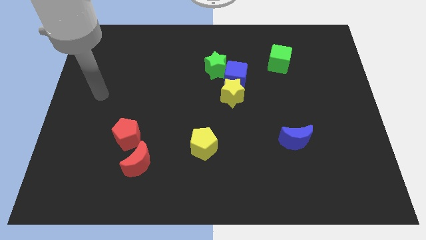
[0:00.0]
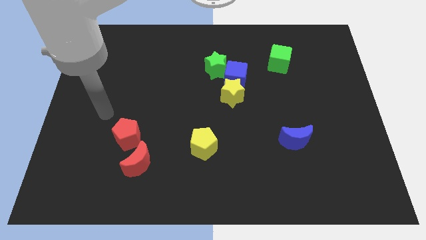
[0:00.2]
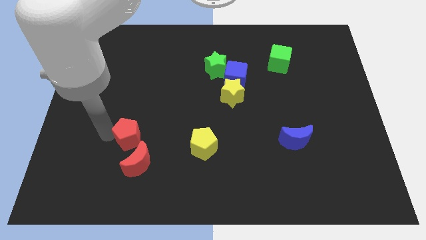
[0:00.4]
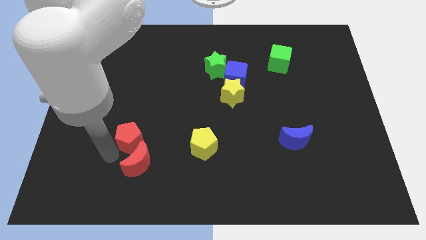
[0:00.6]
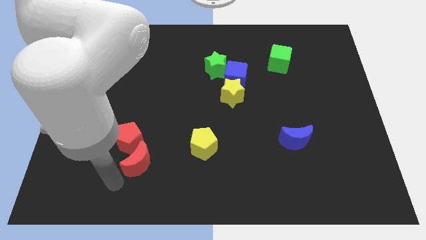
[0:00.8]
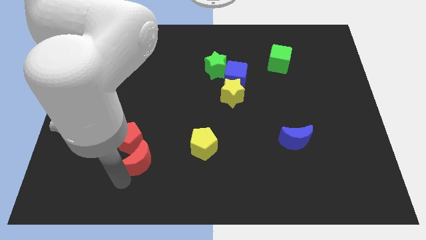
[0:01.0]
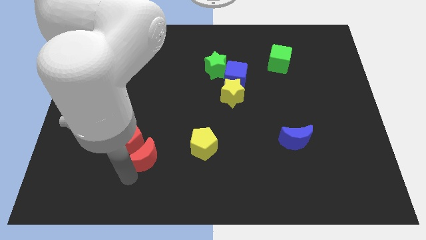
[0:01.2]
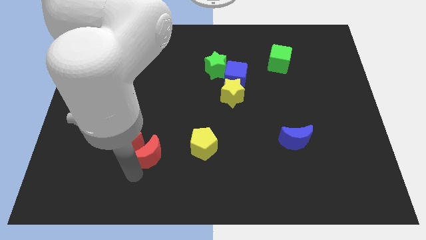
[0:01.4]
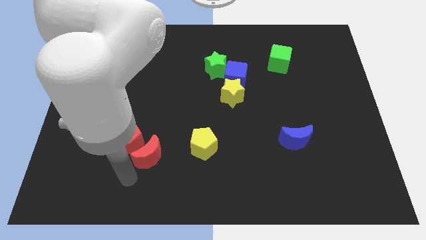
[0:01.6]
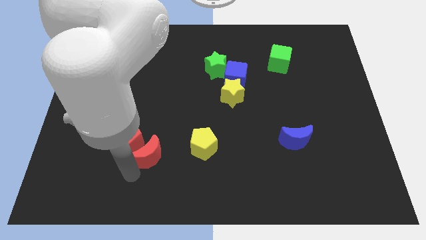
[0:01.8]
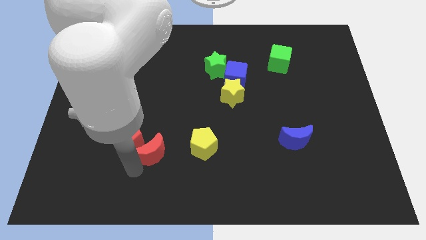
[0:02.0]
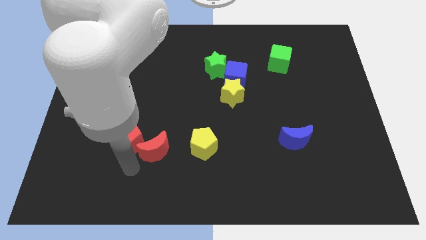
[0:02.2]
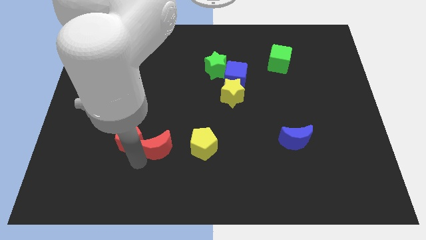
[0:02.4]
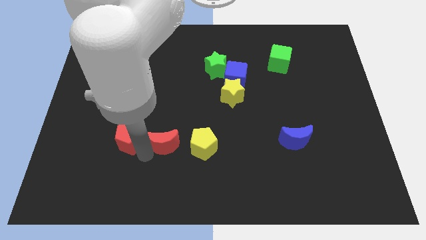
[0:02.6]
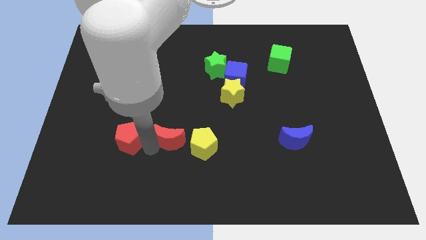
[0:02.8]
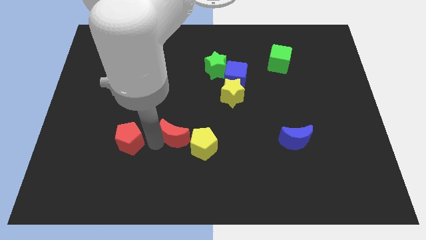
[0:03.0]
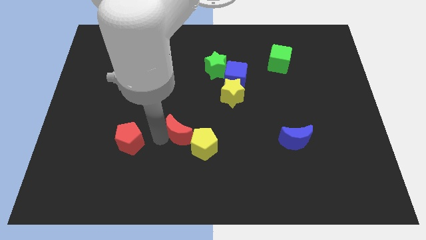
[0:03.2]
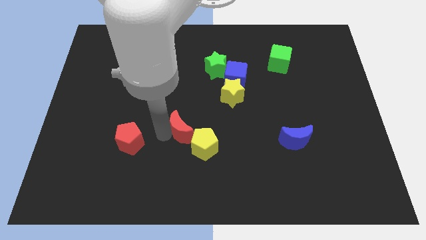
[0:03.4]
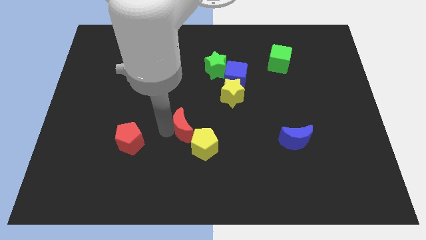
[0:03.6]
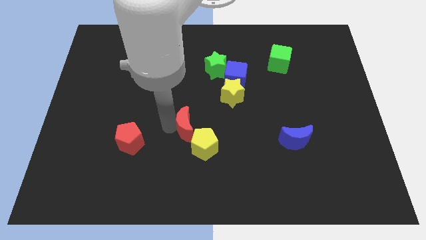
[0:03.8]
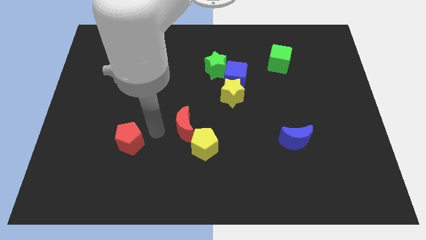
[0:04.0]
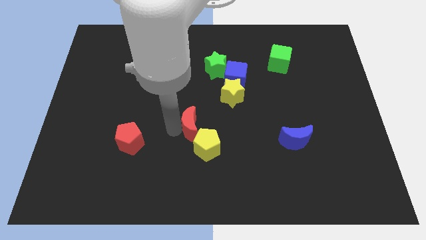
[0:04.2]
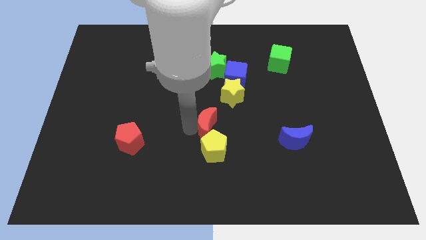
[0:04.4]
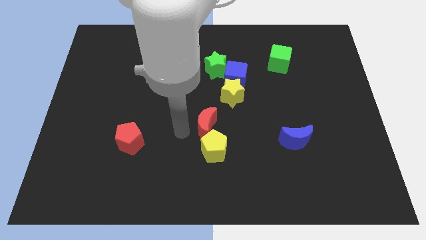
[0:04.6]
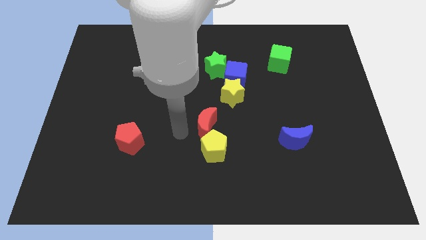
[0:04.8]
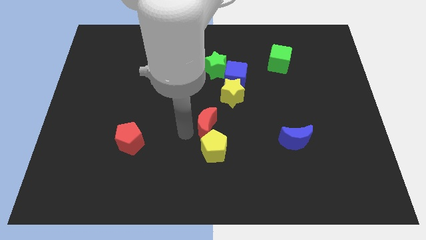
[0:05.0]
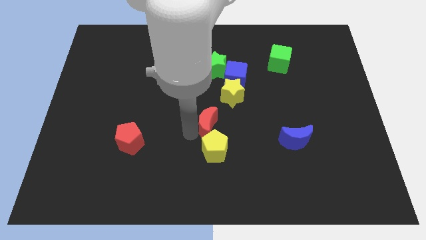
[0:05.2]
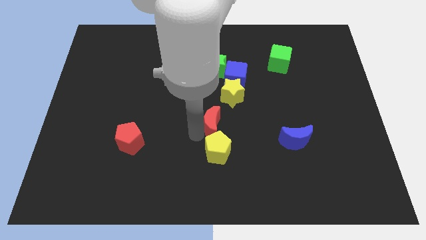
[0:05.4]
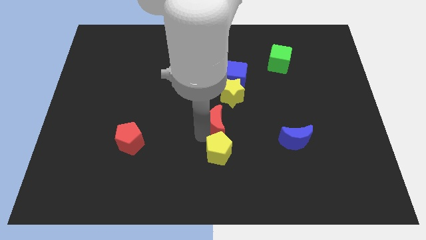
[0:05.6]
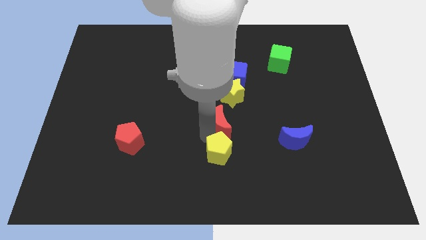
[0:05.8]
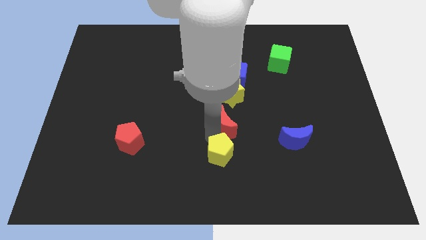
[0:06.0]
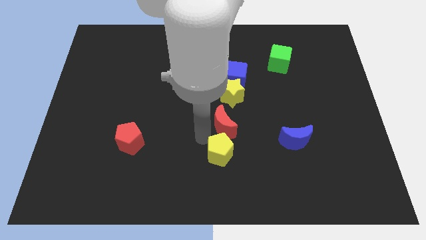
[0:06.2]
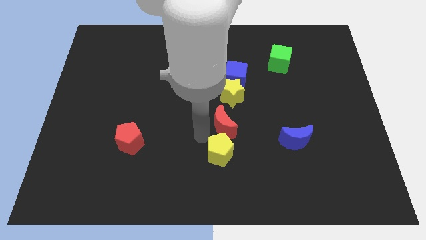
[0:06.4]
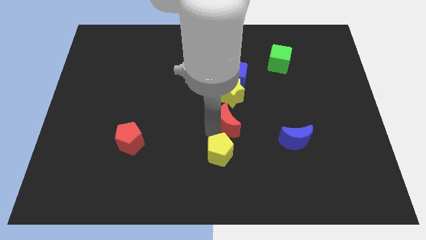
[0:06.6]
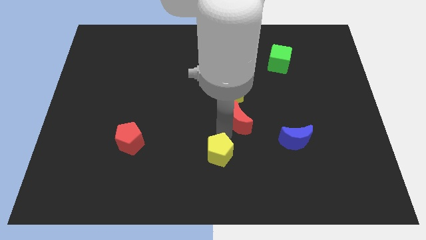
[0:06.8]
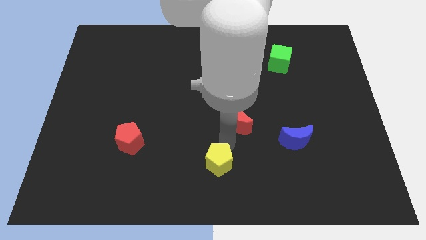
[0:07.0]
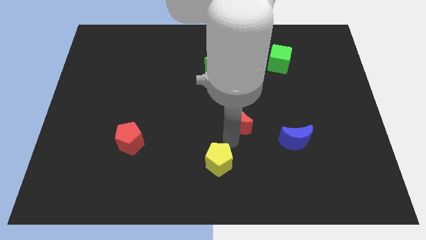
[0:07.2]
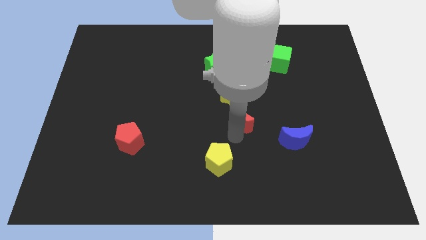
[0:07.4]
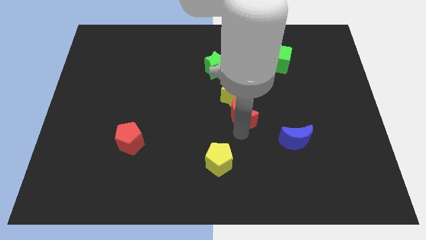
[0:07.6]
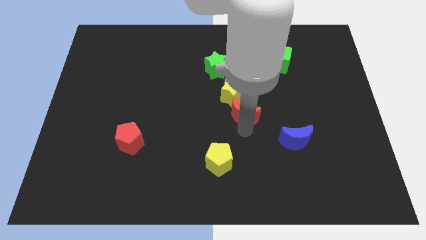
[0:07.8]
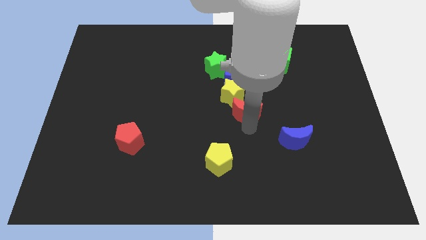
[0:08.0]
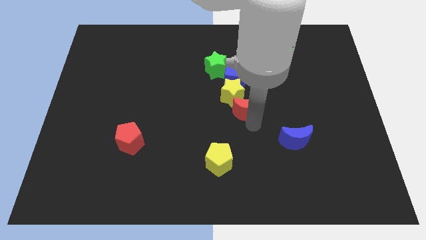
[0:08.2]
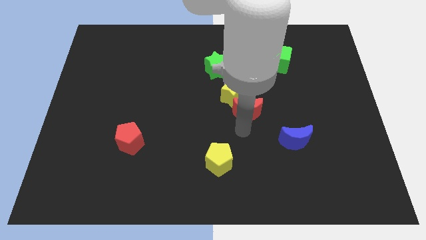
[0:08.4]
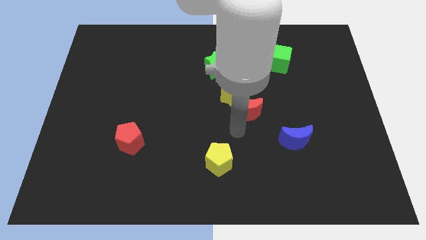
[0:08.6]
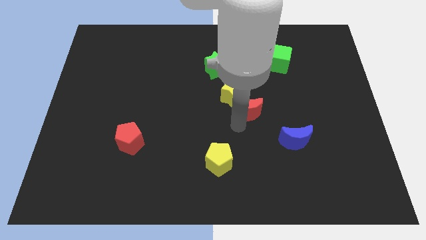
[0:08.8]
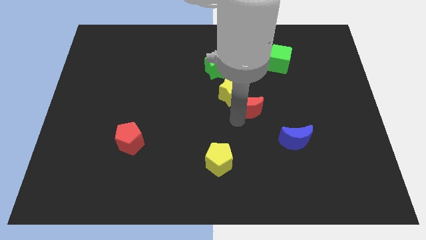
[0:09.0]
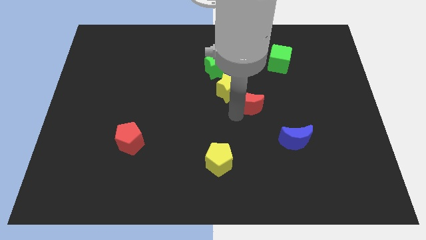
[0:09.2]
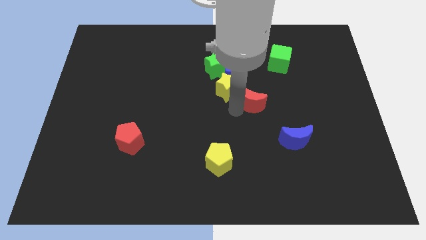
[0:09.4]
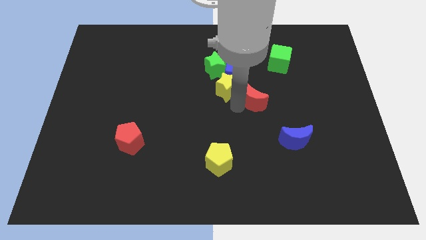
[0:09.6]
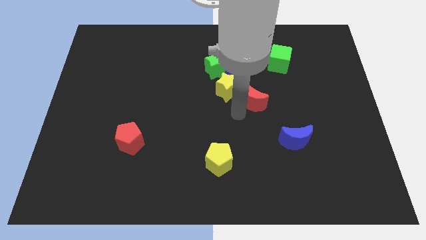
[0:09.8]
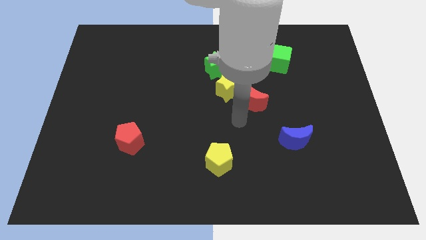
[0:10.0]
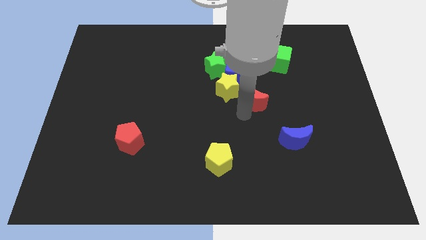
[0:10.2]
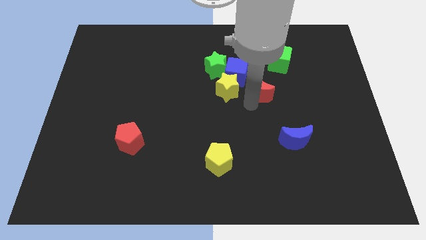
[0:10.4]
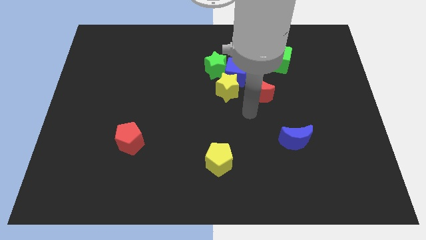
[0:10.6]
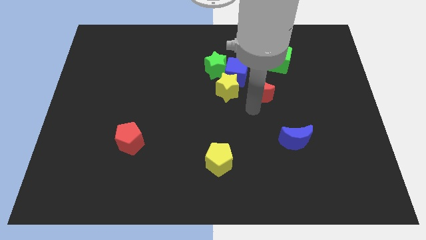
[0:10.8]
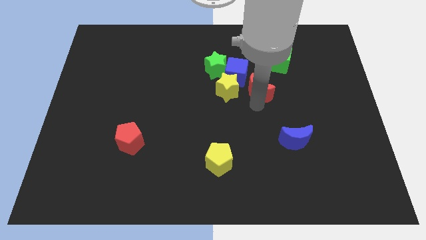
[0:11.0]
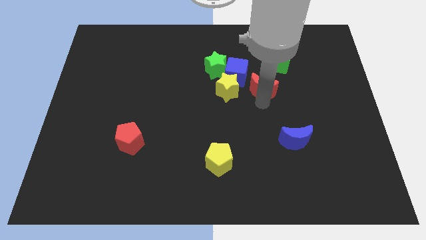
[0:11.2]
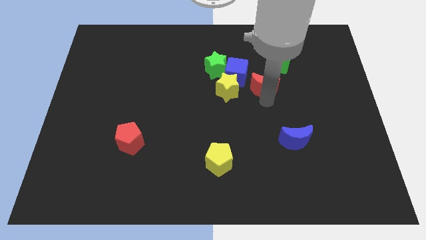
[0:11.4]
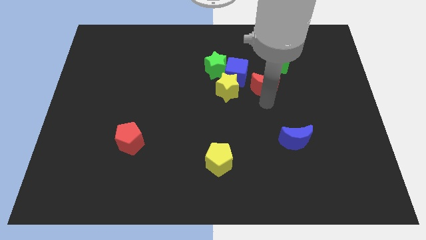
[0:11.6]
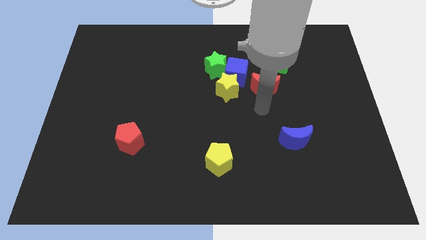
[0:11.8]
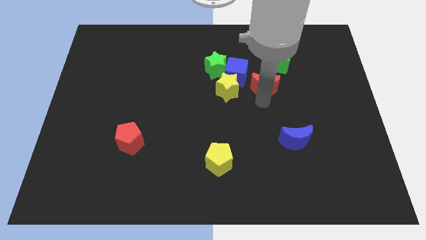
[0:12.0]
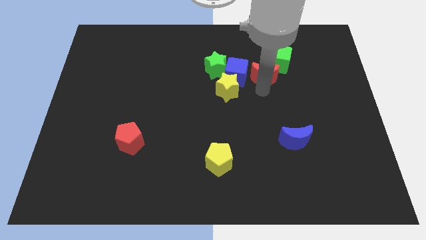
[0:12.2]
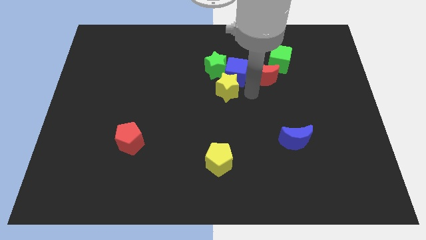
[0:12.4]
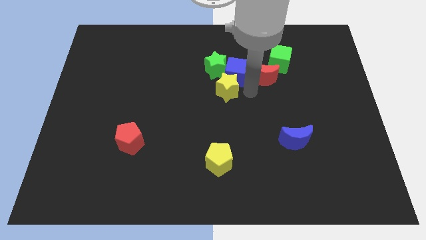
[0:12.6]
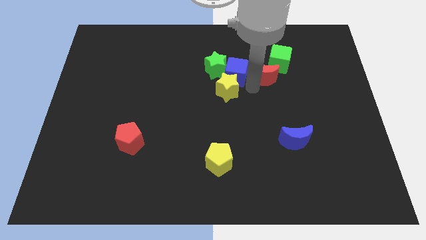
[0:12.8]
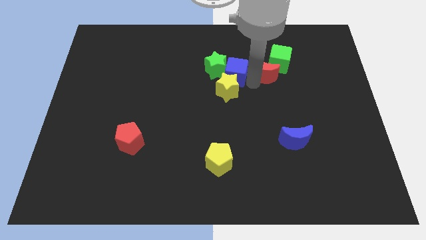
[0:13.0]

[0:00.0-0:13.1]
move the red moon next to the green cube

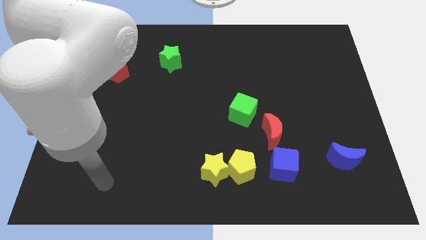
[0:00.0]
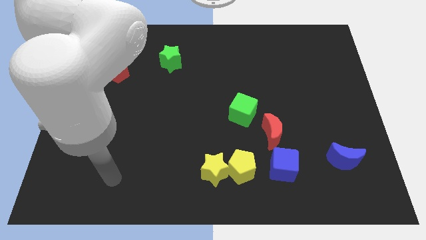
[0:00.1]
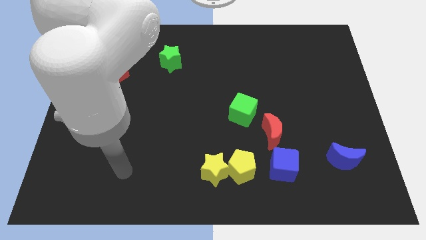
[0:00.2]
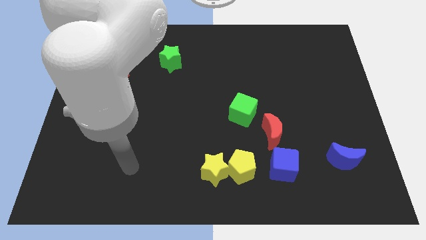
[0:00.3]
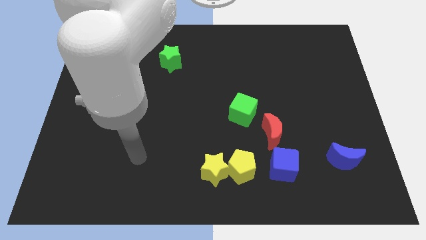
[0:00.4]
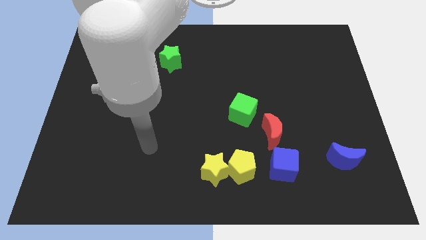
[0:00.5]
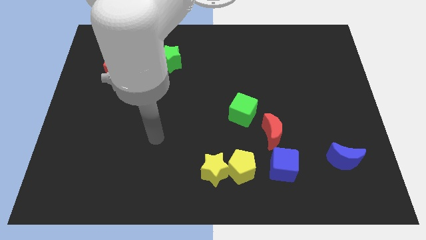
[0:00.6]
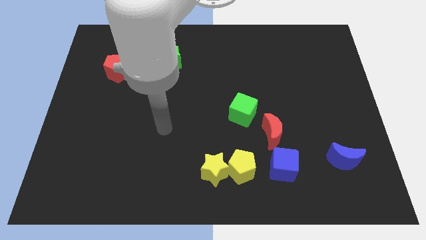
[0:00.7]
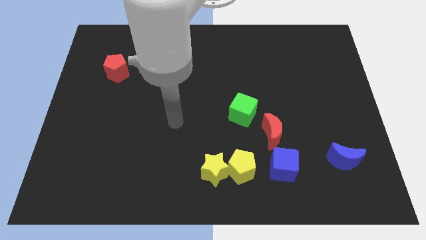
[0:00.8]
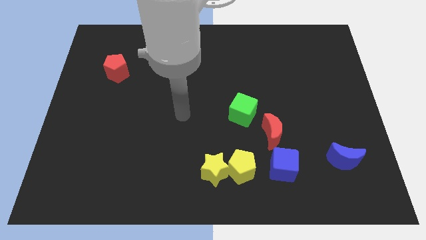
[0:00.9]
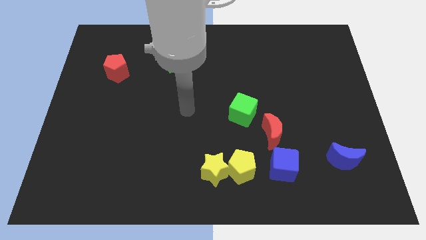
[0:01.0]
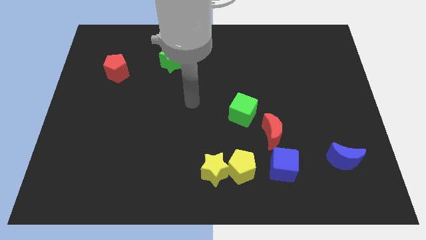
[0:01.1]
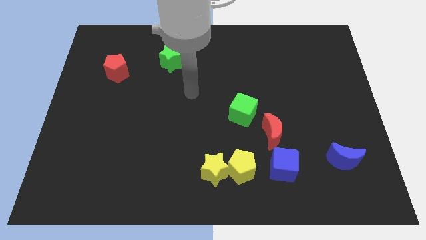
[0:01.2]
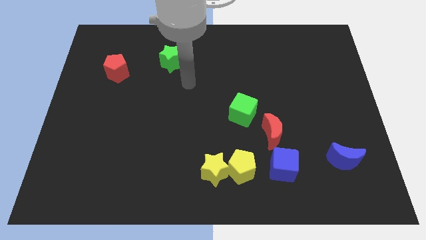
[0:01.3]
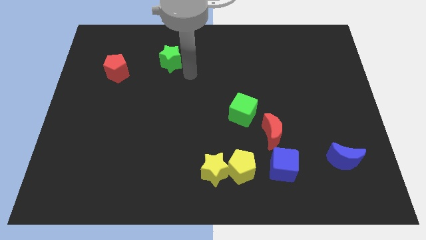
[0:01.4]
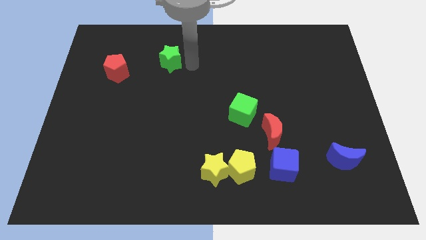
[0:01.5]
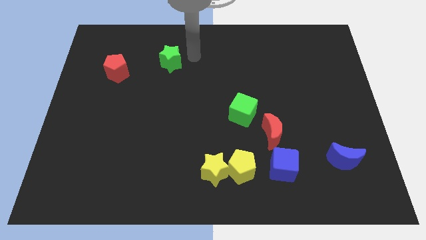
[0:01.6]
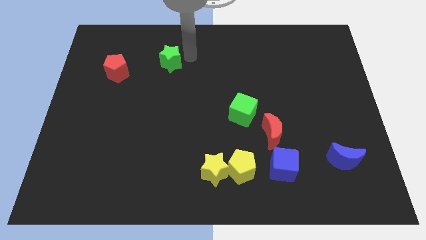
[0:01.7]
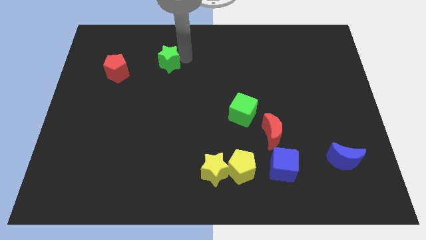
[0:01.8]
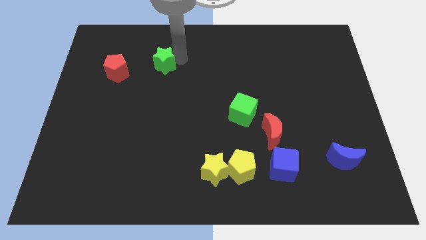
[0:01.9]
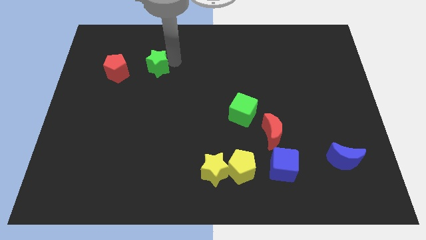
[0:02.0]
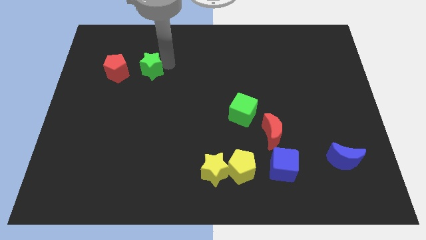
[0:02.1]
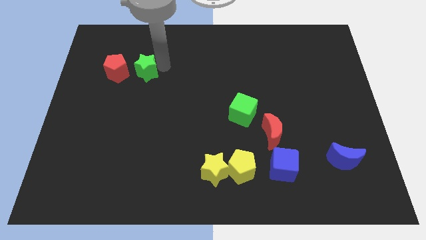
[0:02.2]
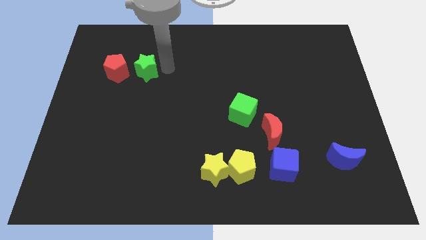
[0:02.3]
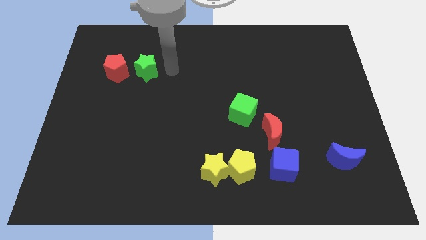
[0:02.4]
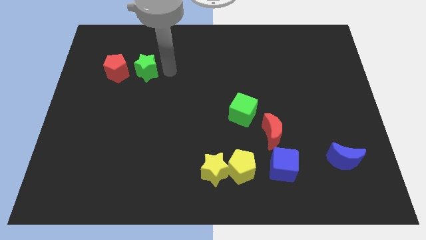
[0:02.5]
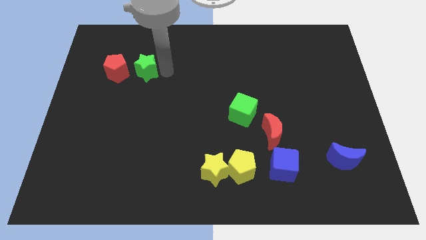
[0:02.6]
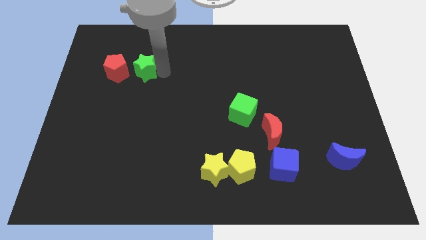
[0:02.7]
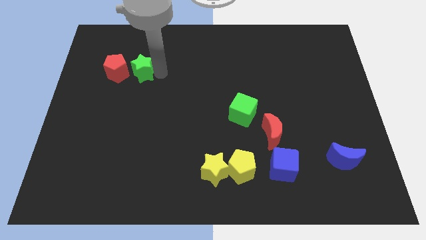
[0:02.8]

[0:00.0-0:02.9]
push the green star to the red pentagon
